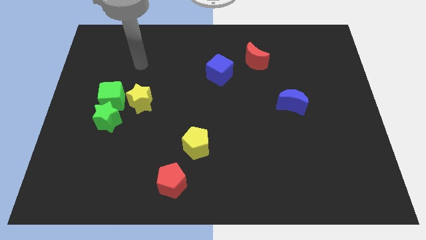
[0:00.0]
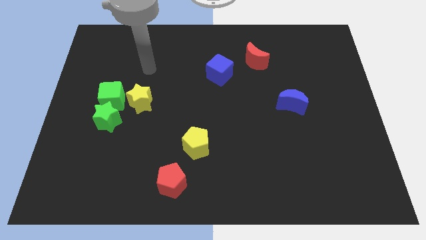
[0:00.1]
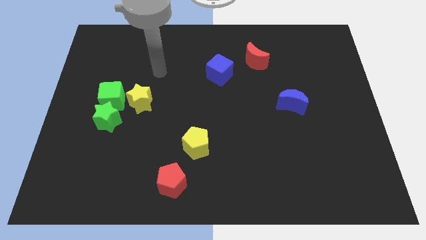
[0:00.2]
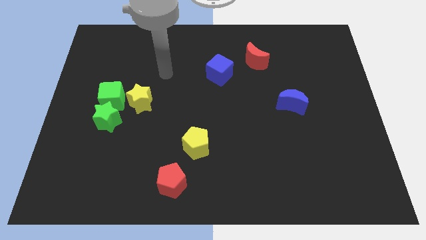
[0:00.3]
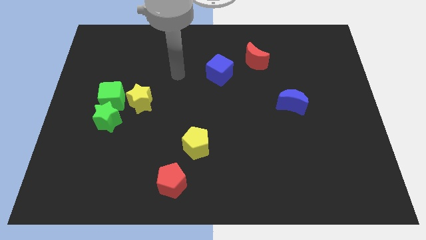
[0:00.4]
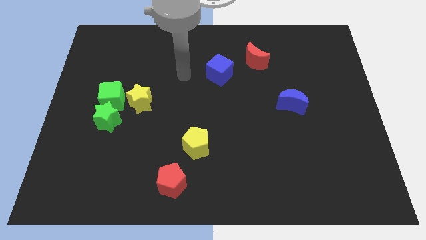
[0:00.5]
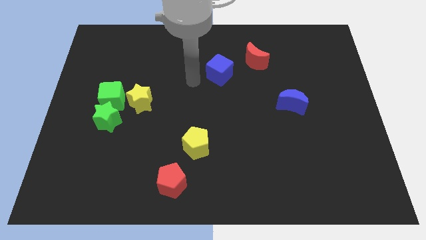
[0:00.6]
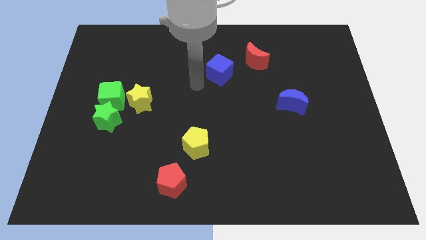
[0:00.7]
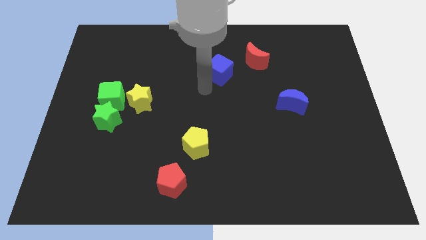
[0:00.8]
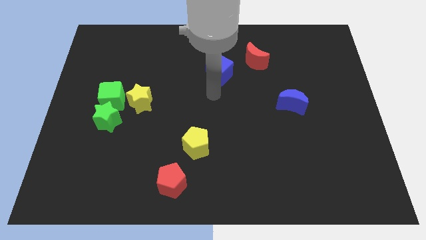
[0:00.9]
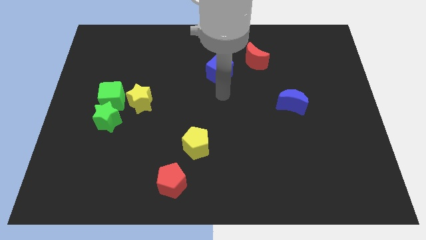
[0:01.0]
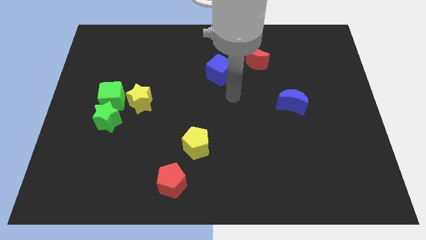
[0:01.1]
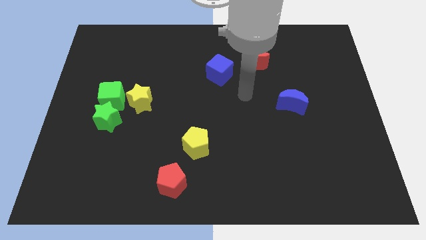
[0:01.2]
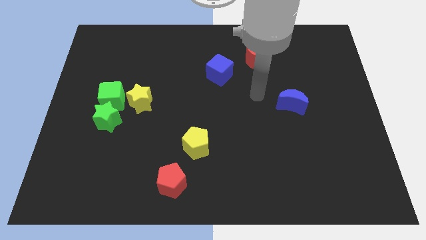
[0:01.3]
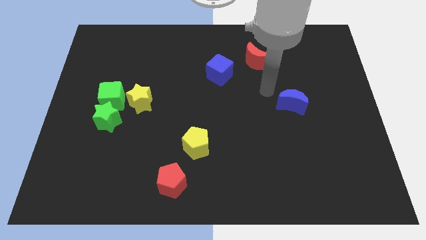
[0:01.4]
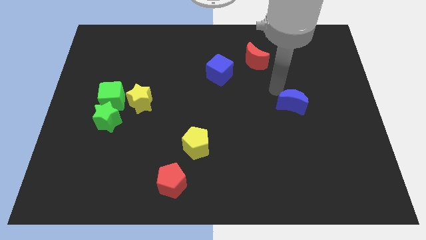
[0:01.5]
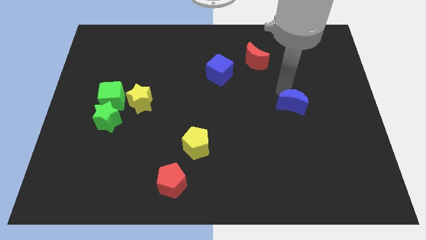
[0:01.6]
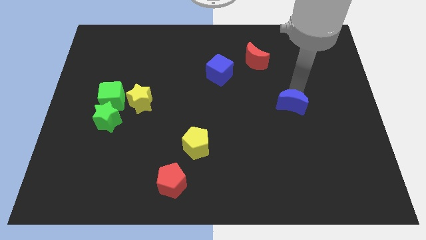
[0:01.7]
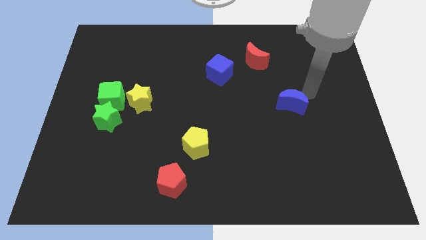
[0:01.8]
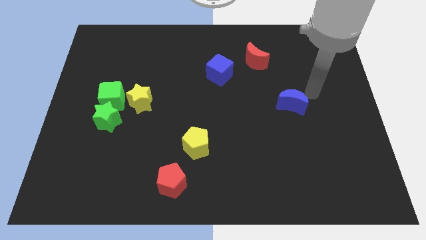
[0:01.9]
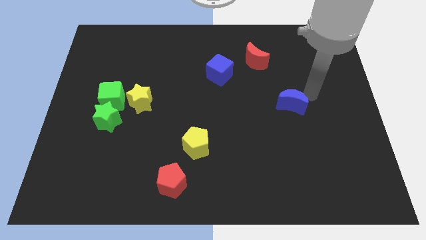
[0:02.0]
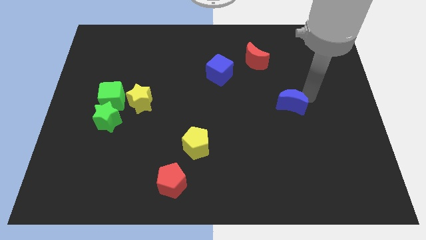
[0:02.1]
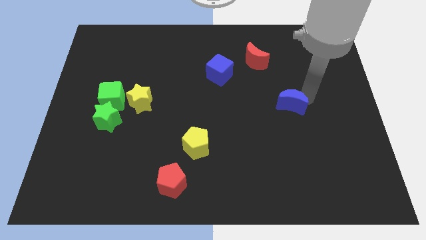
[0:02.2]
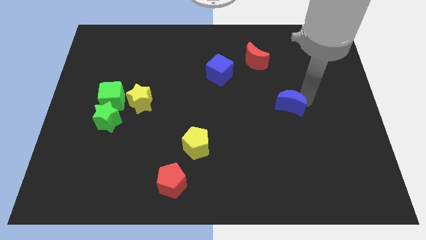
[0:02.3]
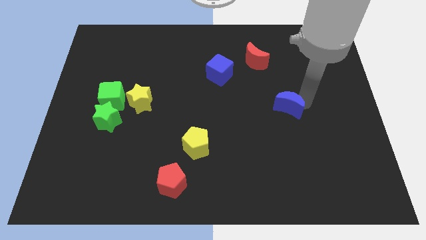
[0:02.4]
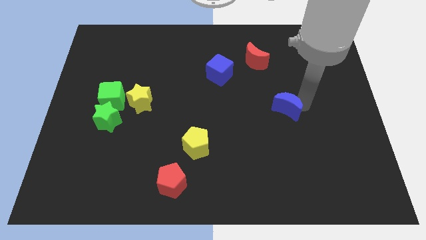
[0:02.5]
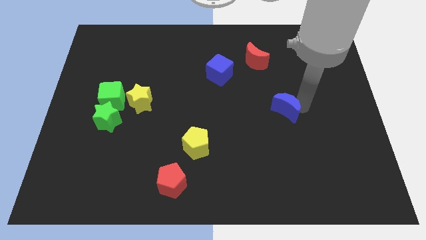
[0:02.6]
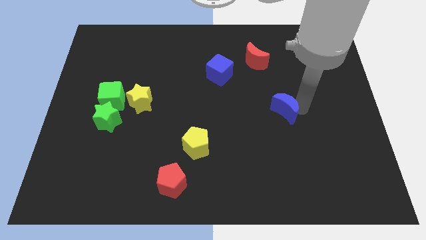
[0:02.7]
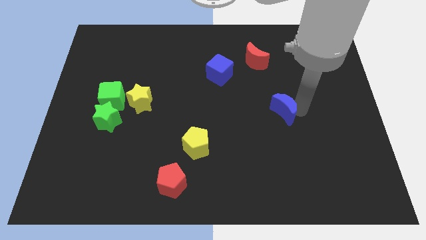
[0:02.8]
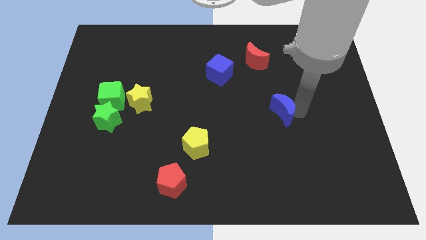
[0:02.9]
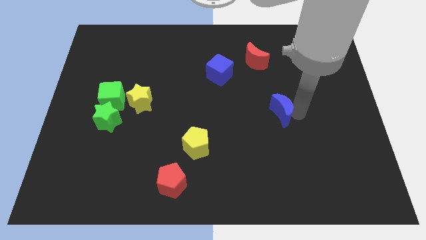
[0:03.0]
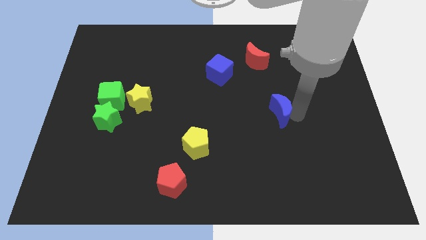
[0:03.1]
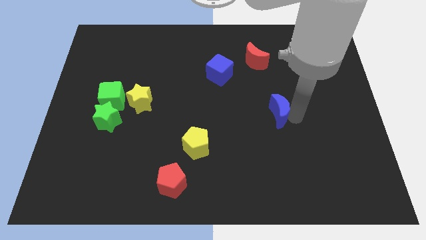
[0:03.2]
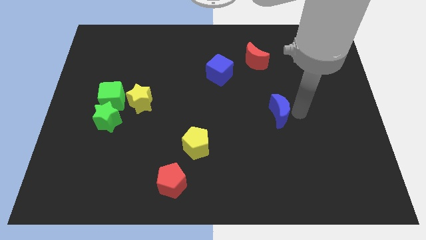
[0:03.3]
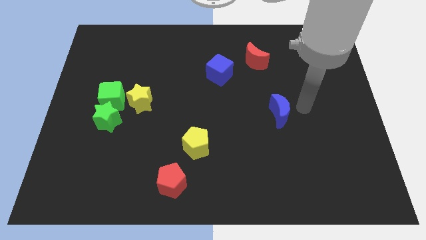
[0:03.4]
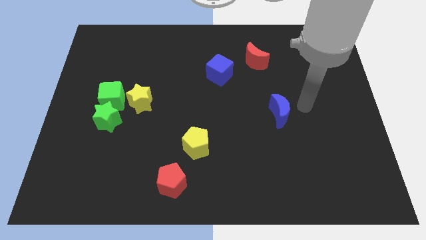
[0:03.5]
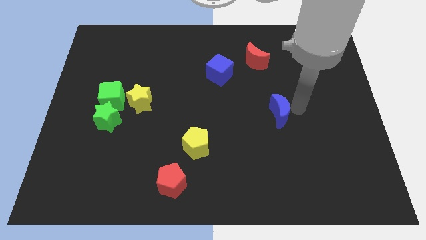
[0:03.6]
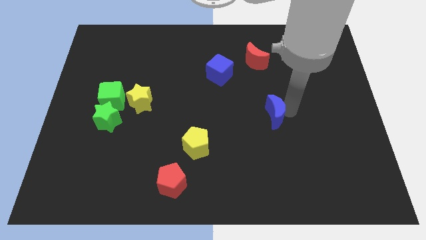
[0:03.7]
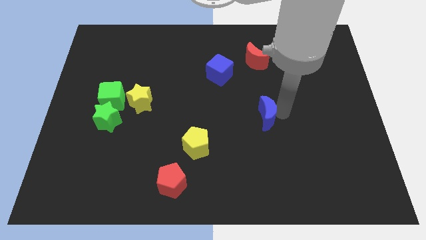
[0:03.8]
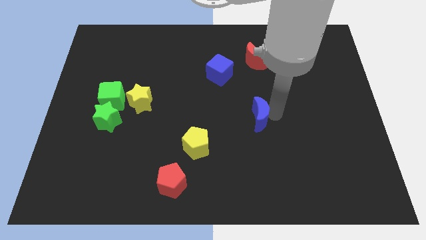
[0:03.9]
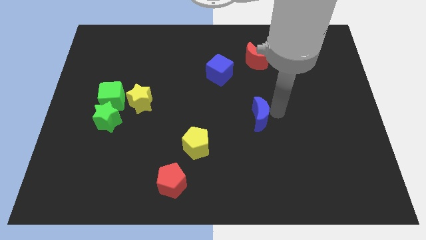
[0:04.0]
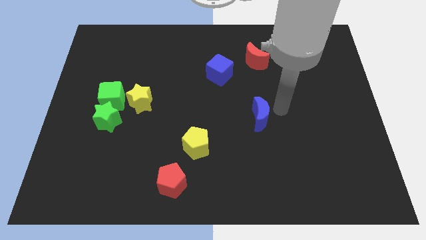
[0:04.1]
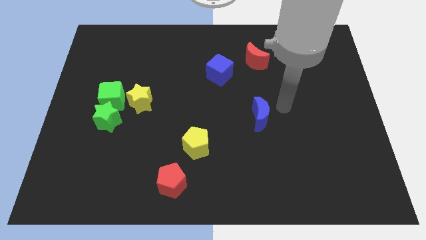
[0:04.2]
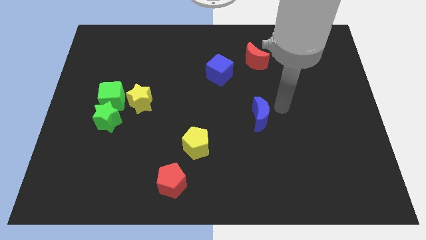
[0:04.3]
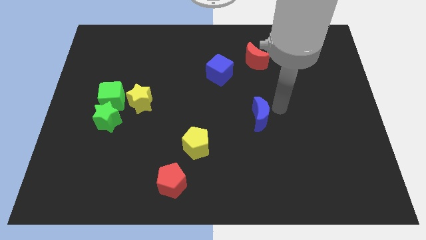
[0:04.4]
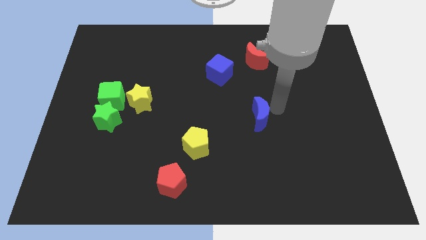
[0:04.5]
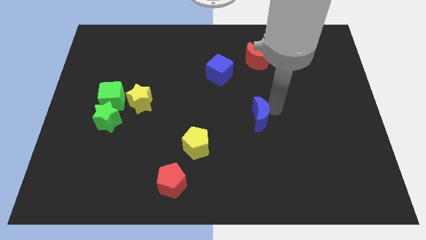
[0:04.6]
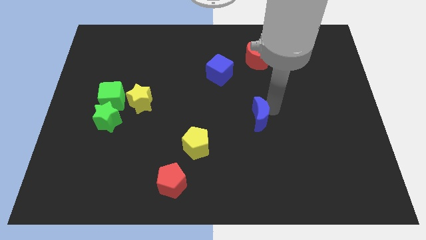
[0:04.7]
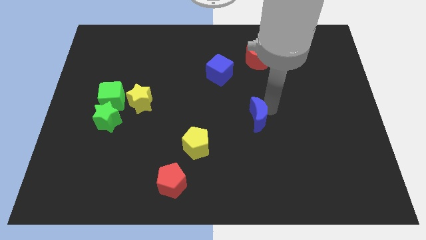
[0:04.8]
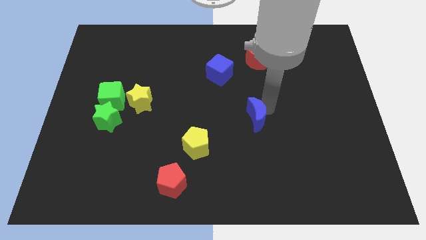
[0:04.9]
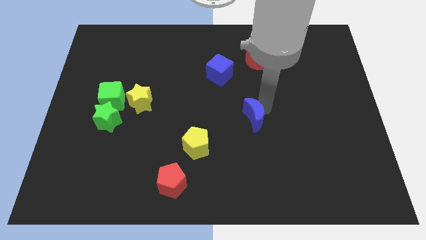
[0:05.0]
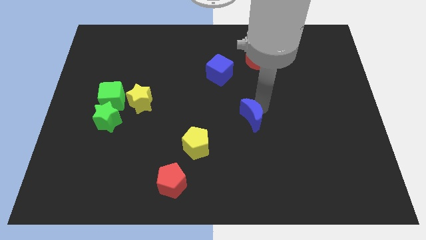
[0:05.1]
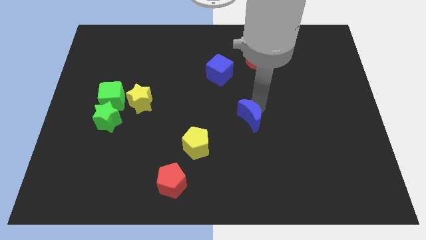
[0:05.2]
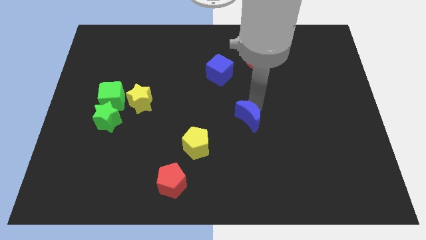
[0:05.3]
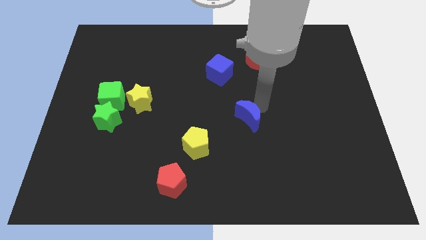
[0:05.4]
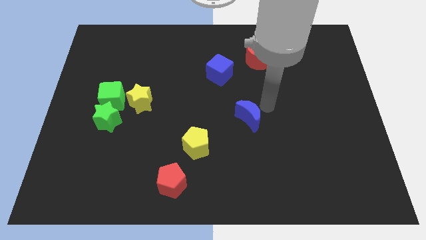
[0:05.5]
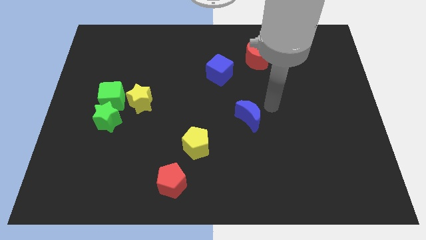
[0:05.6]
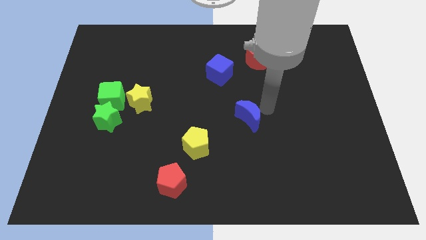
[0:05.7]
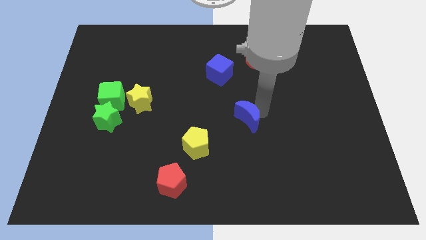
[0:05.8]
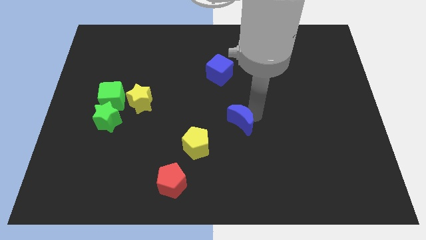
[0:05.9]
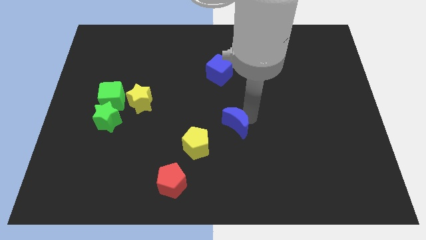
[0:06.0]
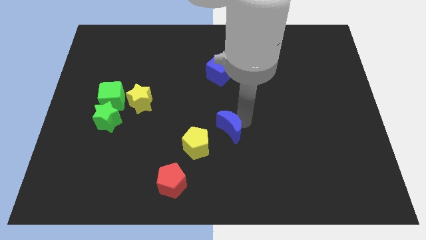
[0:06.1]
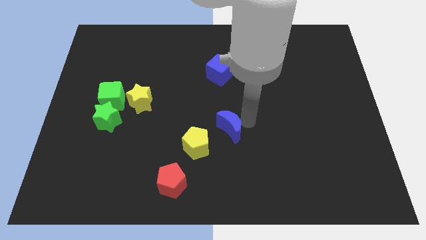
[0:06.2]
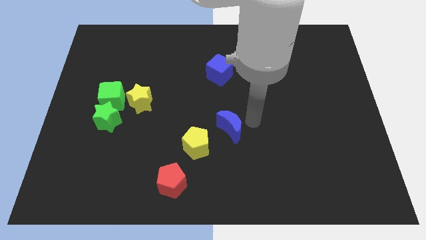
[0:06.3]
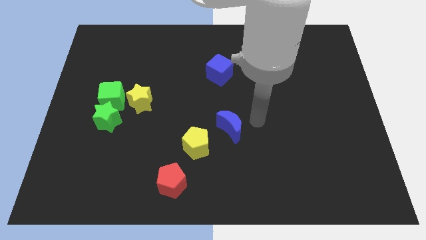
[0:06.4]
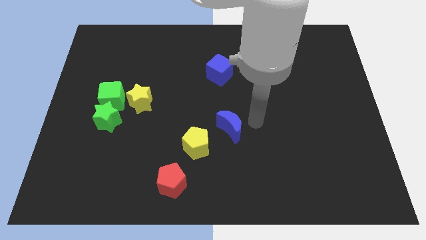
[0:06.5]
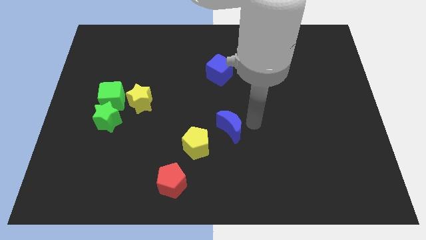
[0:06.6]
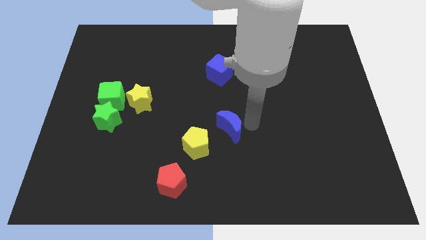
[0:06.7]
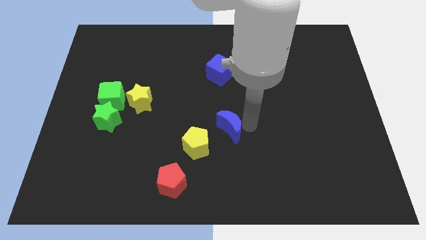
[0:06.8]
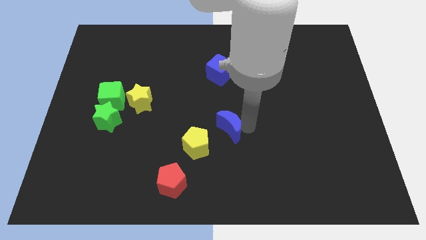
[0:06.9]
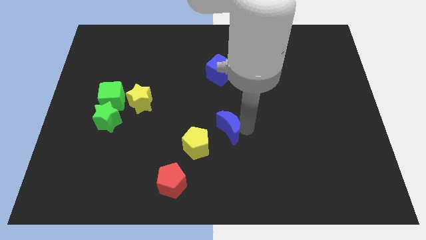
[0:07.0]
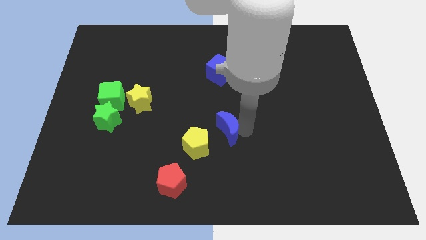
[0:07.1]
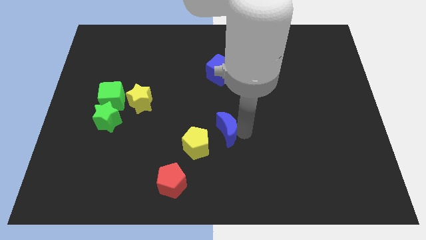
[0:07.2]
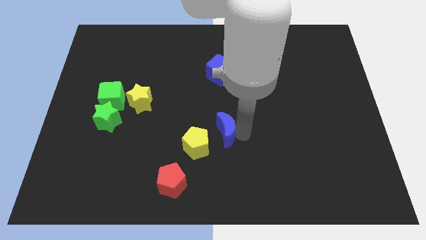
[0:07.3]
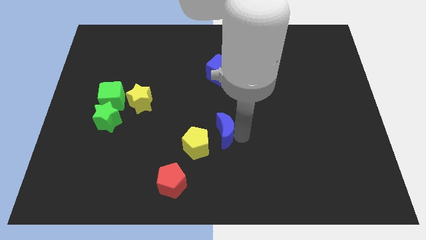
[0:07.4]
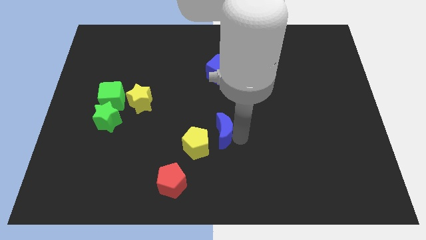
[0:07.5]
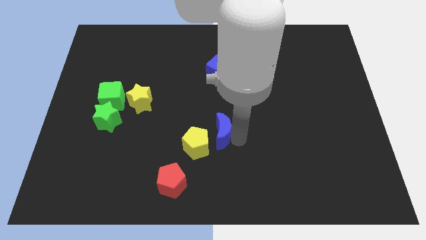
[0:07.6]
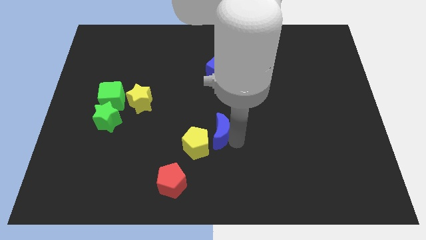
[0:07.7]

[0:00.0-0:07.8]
put the blue moon to the yellow pentagon
